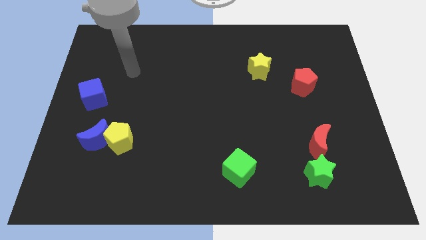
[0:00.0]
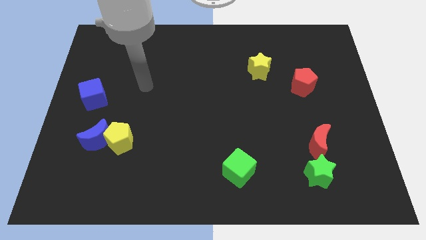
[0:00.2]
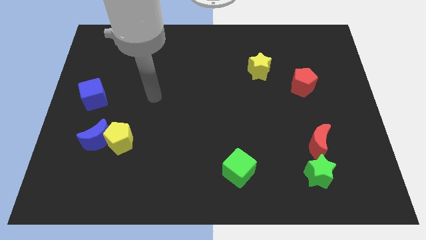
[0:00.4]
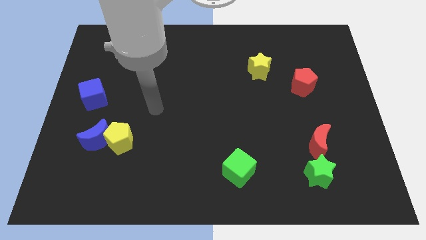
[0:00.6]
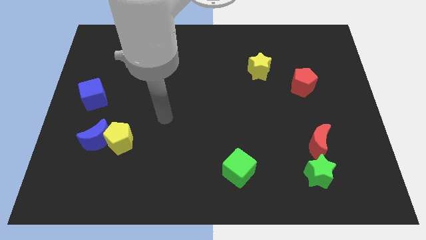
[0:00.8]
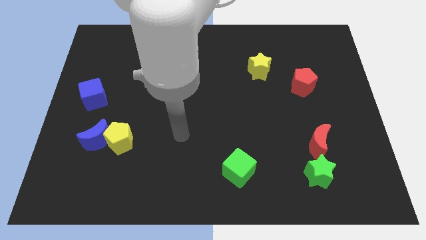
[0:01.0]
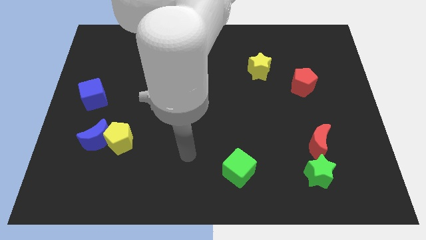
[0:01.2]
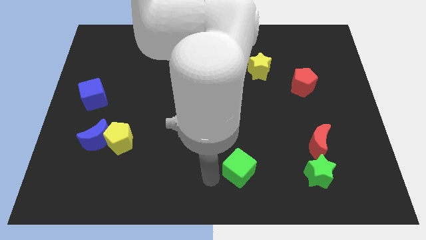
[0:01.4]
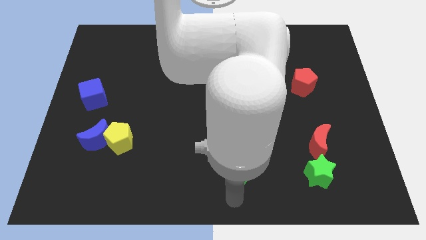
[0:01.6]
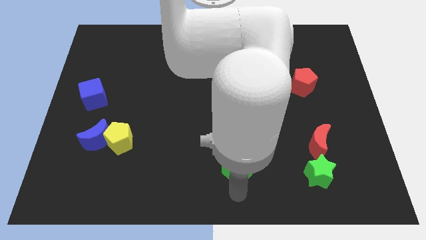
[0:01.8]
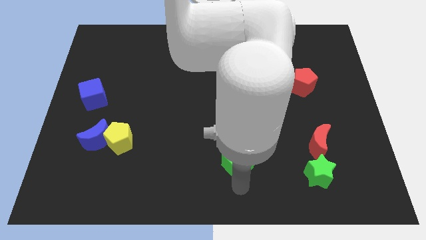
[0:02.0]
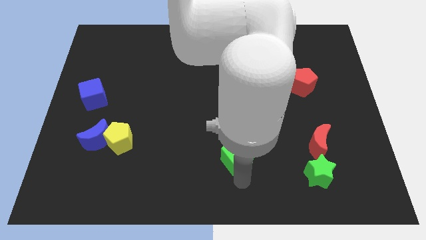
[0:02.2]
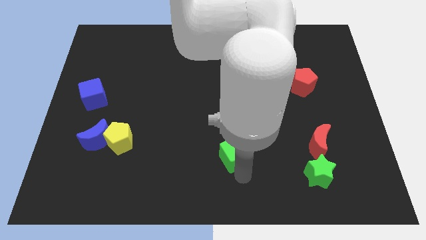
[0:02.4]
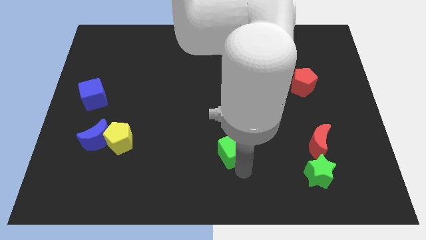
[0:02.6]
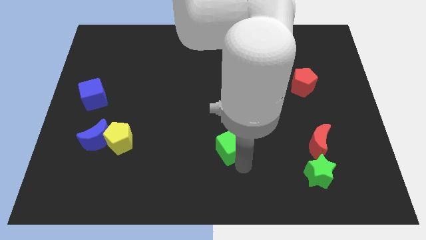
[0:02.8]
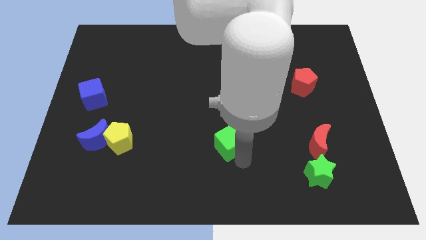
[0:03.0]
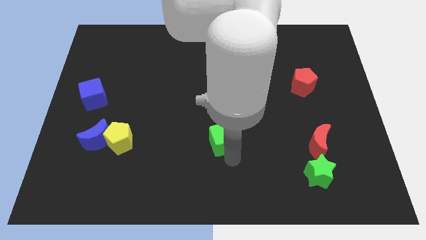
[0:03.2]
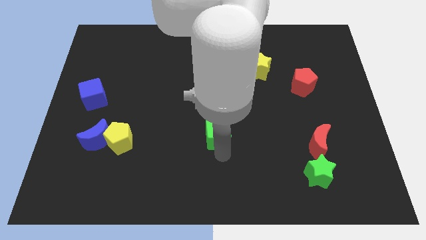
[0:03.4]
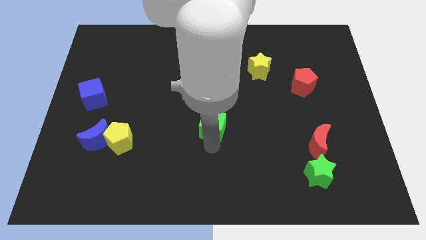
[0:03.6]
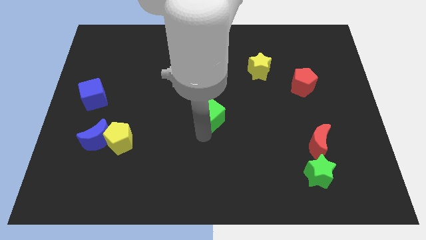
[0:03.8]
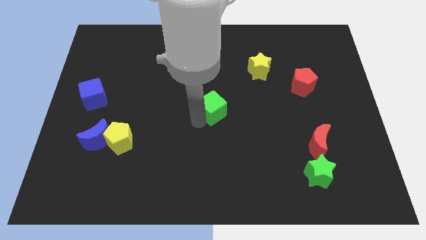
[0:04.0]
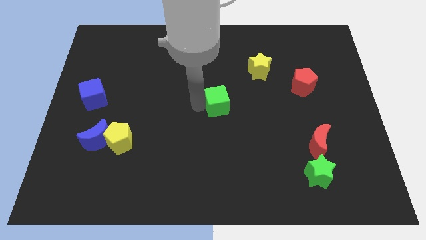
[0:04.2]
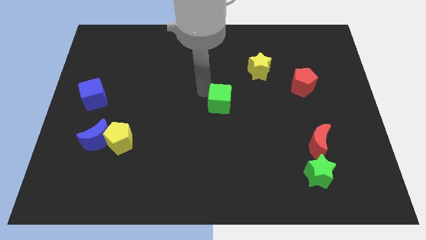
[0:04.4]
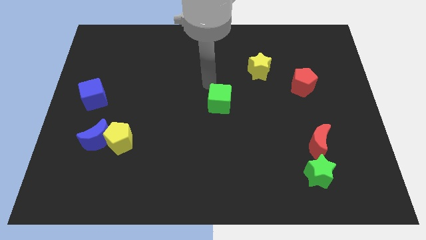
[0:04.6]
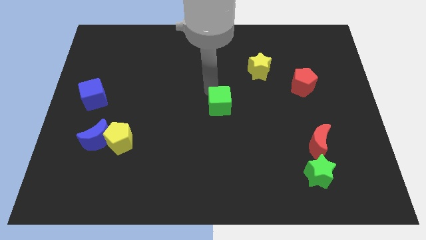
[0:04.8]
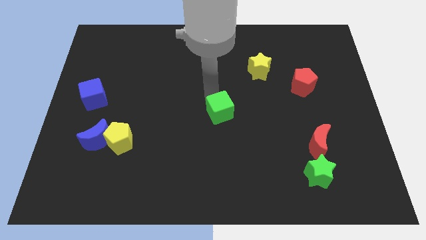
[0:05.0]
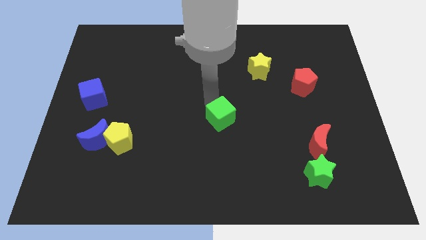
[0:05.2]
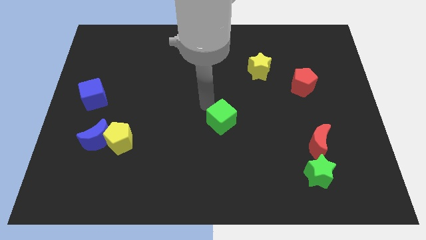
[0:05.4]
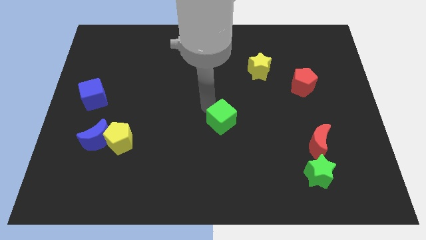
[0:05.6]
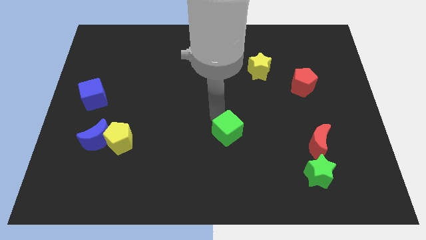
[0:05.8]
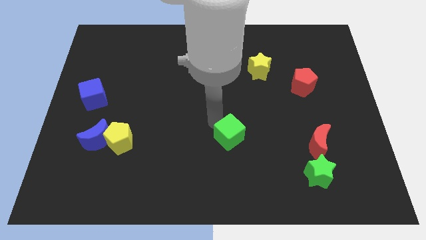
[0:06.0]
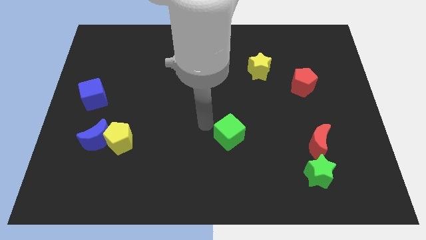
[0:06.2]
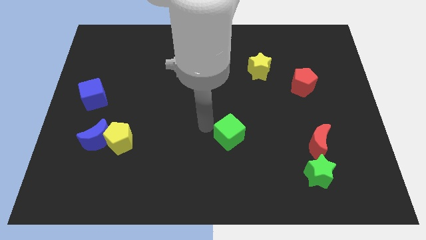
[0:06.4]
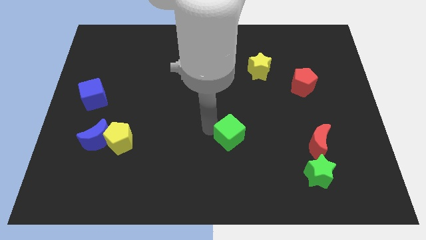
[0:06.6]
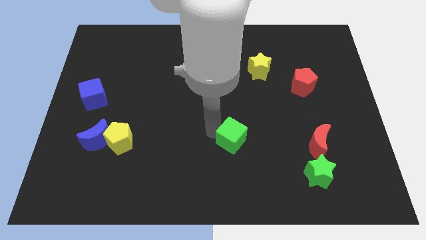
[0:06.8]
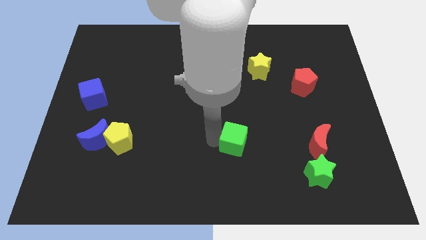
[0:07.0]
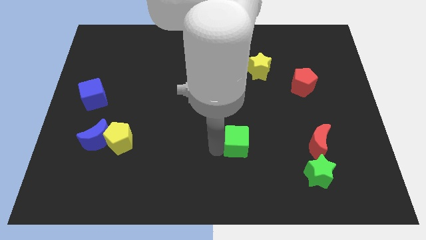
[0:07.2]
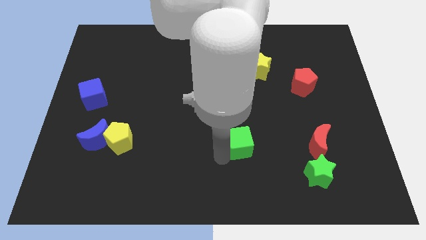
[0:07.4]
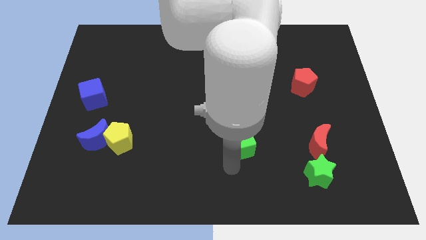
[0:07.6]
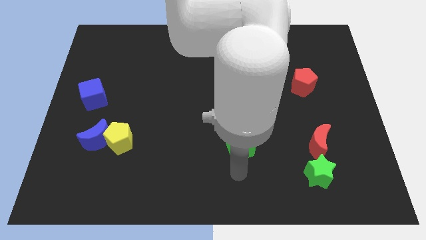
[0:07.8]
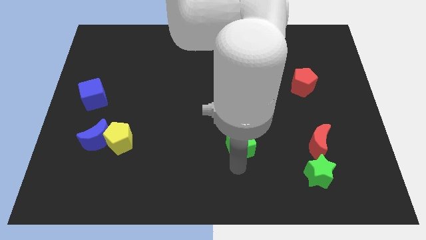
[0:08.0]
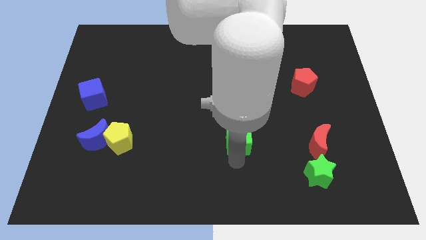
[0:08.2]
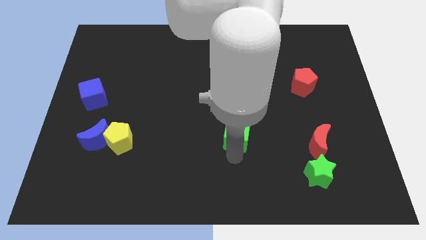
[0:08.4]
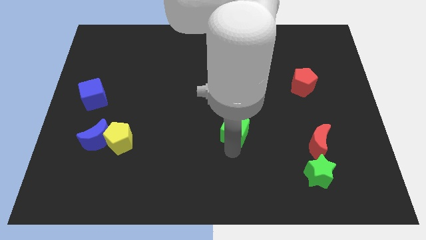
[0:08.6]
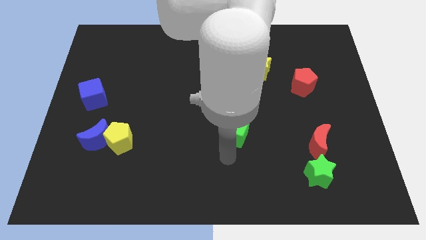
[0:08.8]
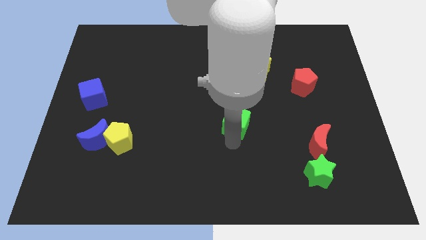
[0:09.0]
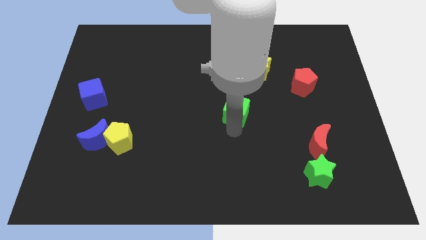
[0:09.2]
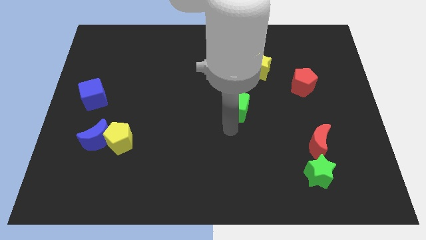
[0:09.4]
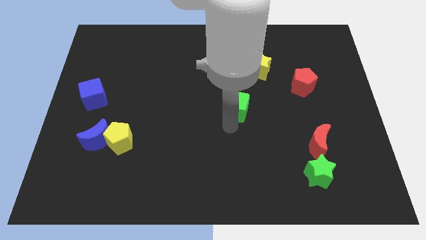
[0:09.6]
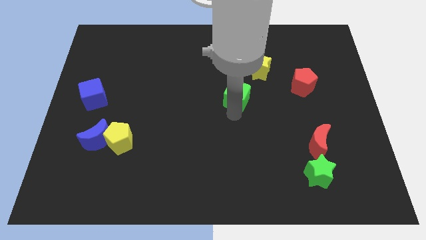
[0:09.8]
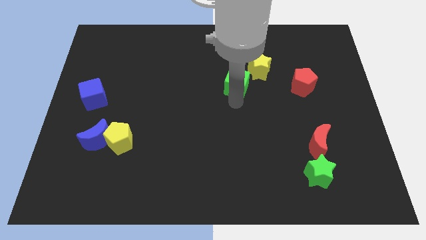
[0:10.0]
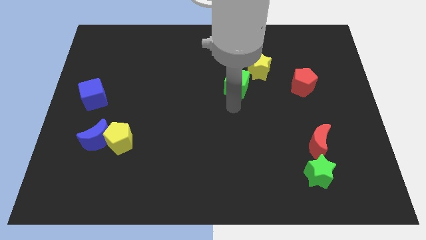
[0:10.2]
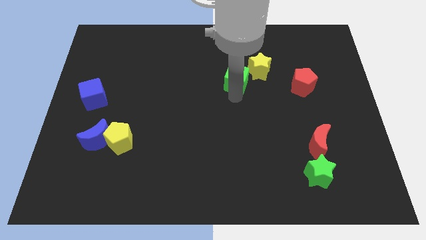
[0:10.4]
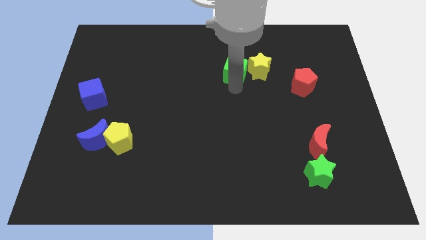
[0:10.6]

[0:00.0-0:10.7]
push the green cube to the top left of the yellow star

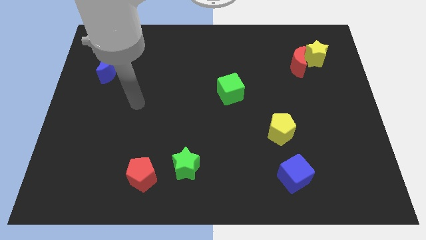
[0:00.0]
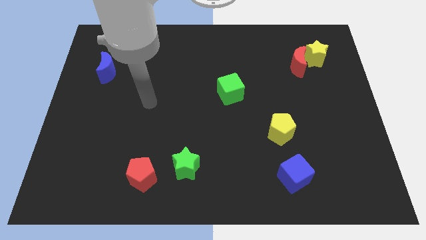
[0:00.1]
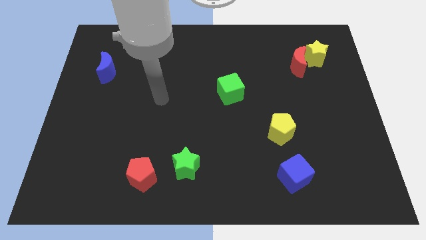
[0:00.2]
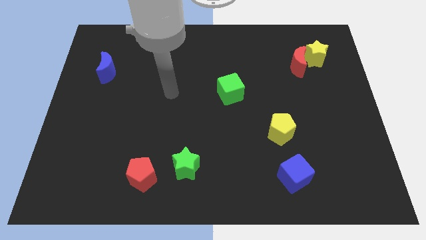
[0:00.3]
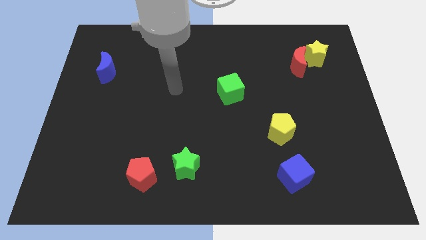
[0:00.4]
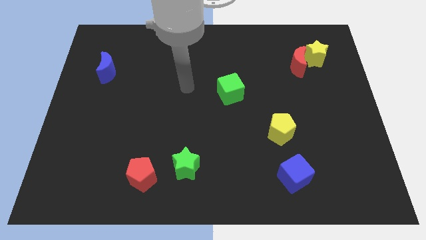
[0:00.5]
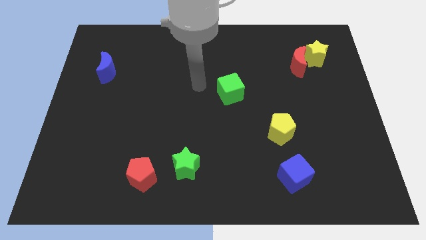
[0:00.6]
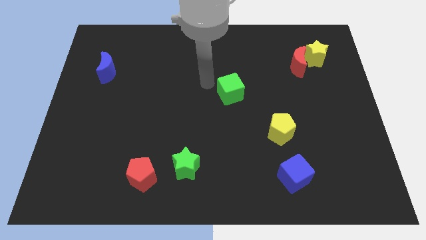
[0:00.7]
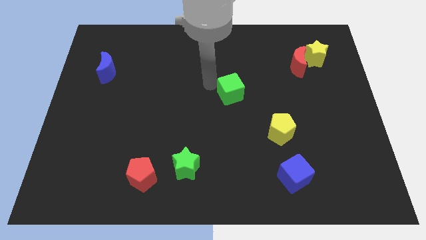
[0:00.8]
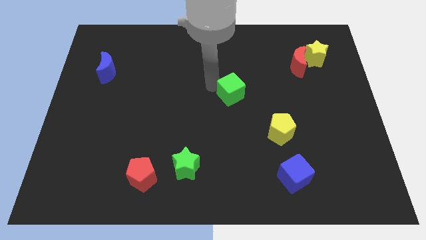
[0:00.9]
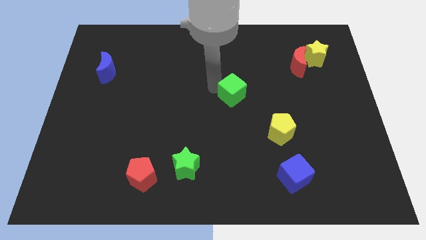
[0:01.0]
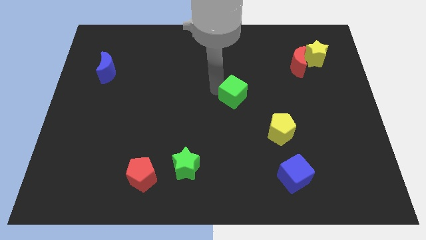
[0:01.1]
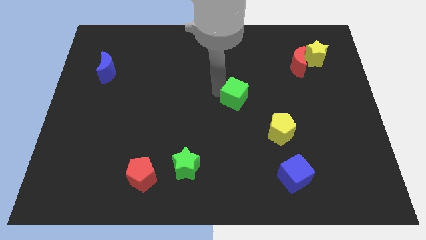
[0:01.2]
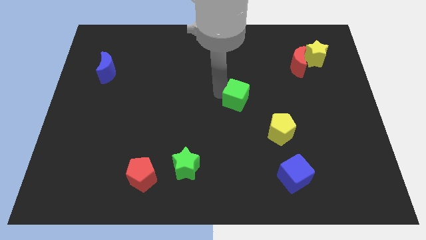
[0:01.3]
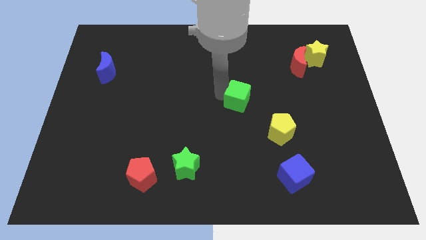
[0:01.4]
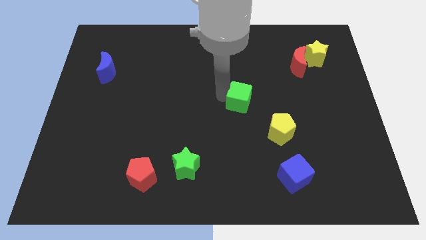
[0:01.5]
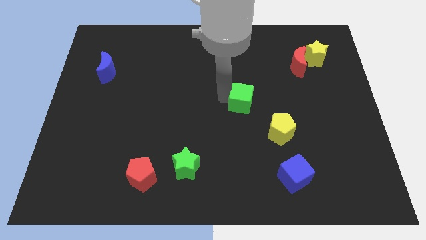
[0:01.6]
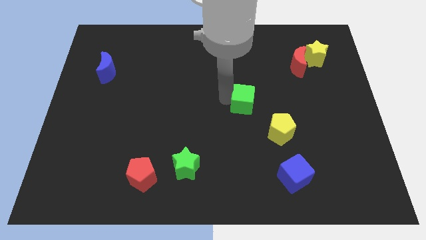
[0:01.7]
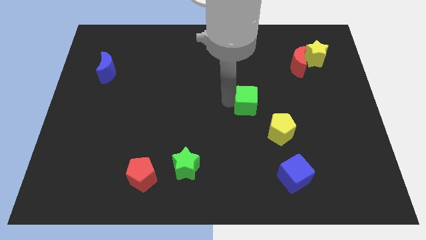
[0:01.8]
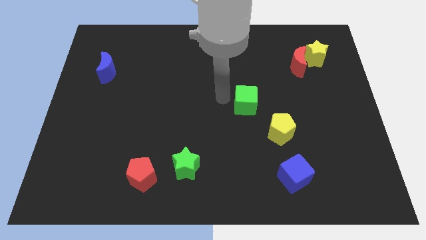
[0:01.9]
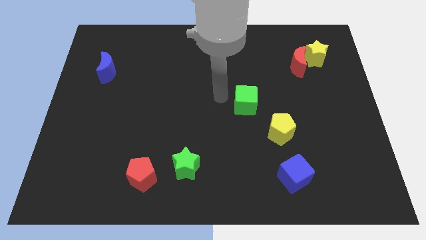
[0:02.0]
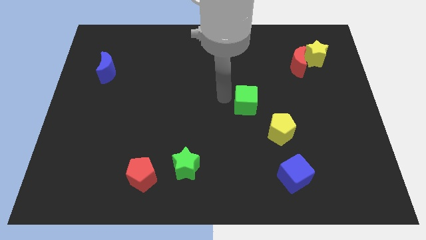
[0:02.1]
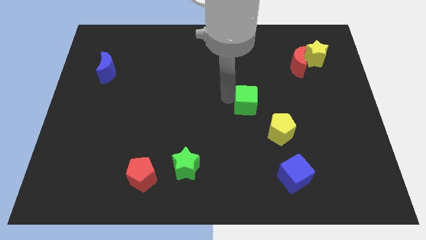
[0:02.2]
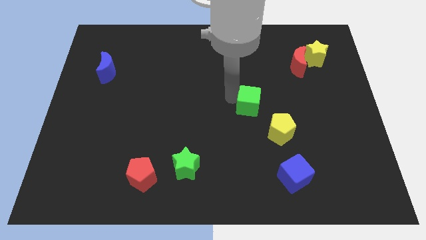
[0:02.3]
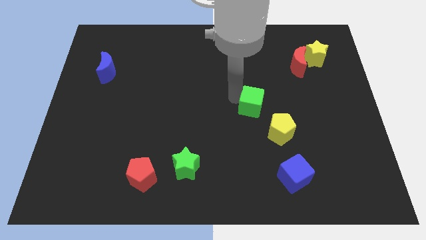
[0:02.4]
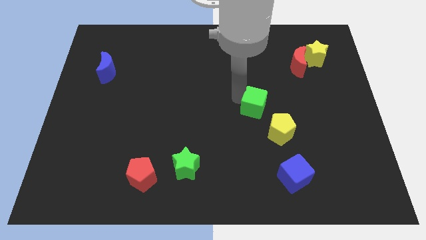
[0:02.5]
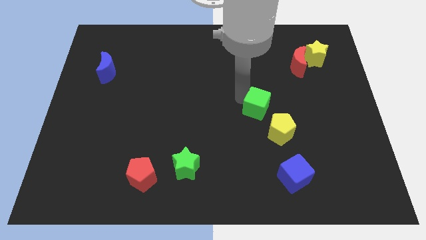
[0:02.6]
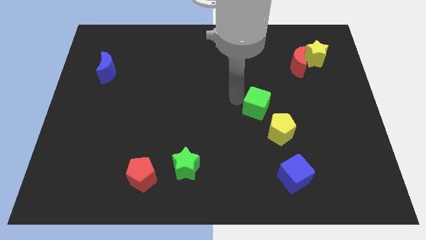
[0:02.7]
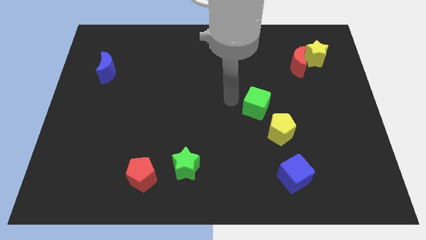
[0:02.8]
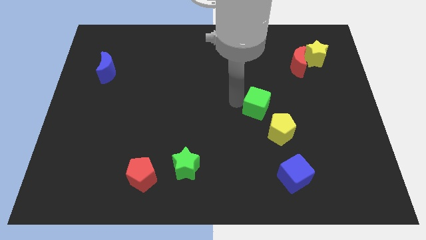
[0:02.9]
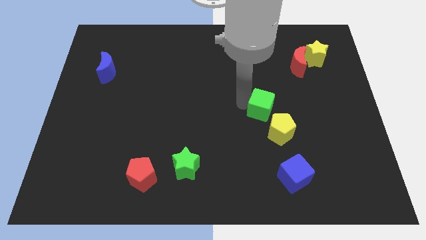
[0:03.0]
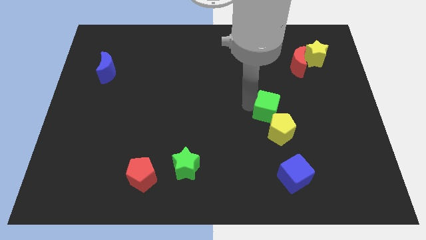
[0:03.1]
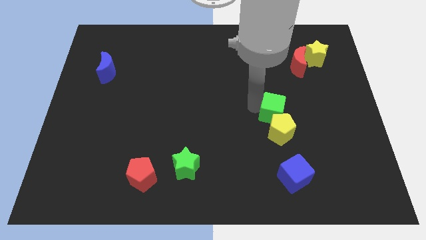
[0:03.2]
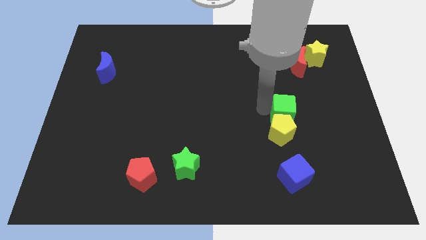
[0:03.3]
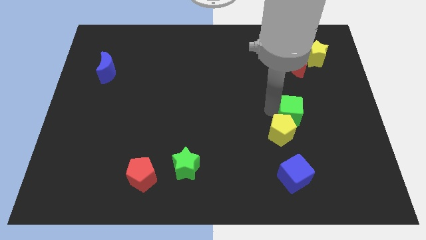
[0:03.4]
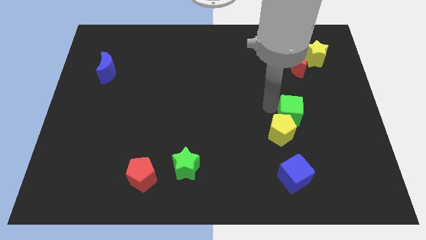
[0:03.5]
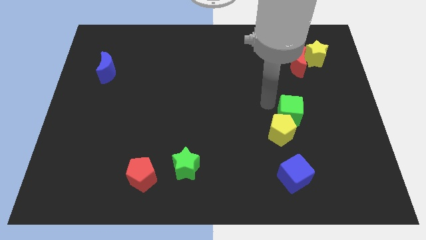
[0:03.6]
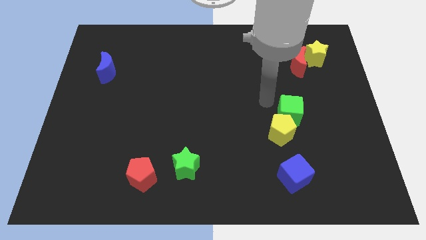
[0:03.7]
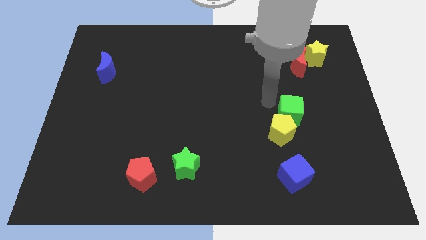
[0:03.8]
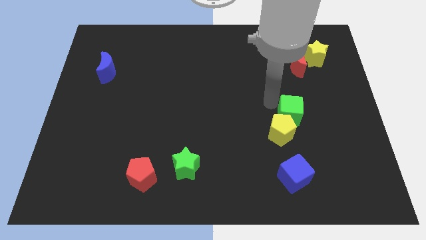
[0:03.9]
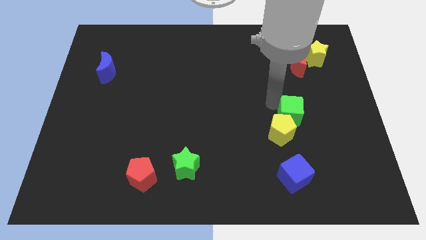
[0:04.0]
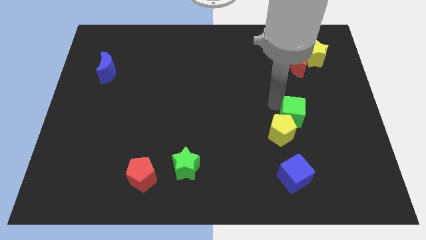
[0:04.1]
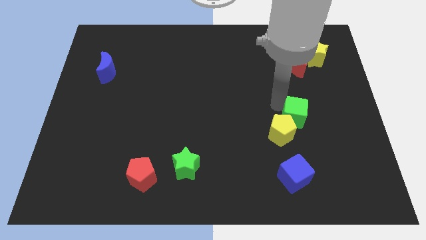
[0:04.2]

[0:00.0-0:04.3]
slide the green cube to the right side of the yellow pentagon
